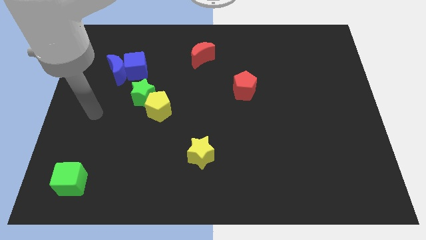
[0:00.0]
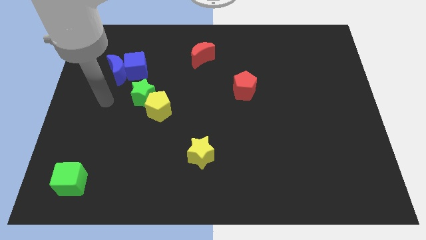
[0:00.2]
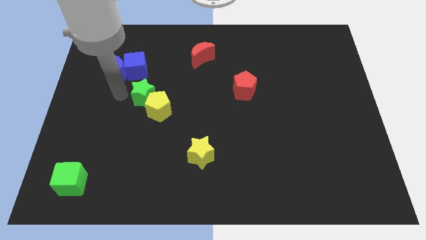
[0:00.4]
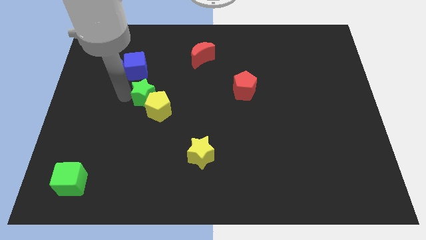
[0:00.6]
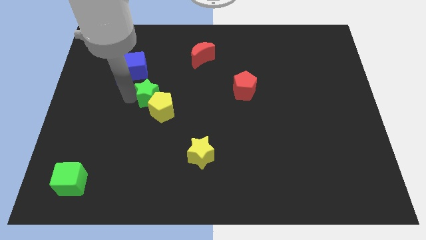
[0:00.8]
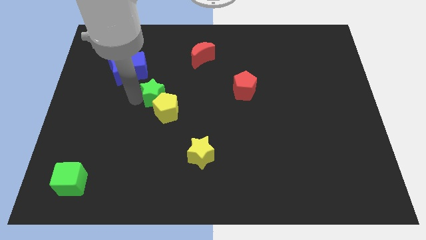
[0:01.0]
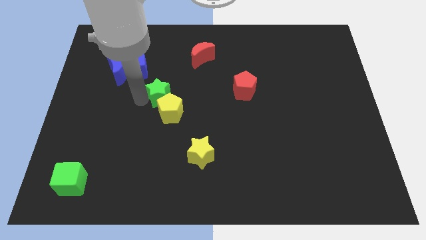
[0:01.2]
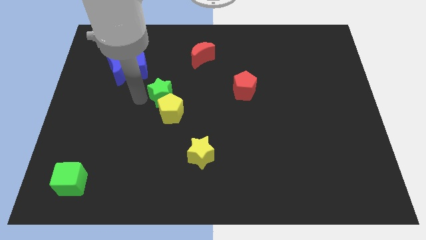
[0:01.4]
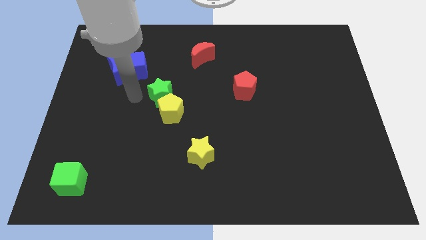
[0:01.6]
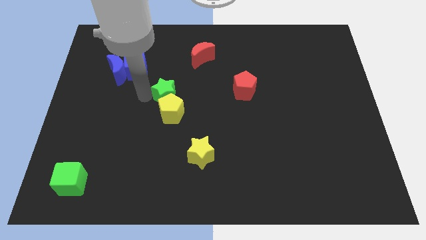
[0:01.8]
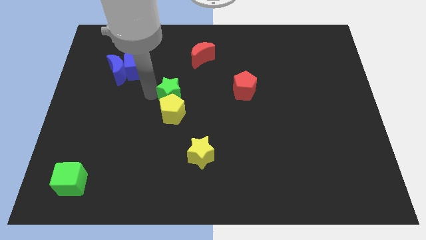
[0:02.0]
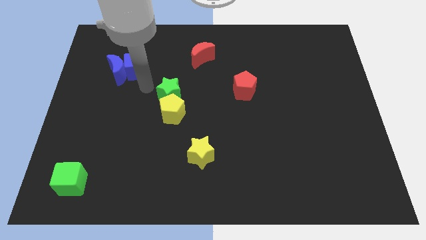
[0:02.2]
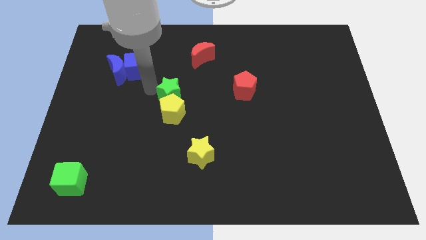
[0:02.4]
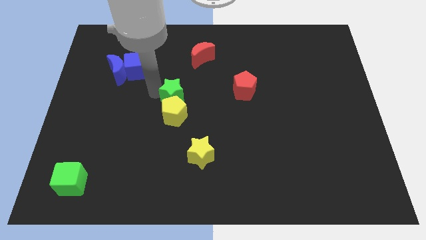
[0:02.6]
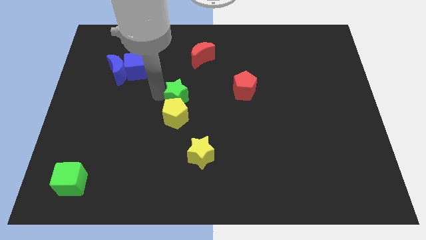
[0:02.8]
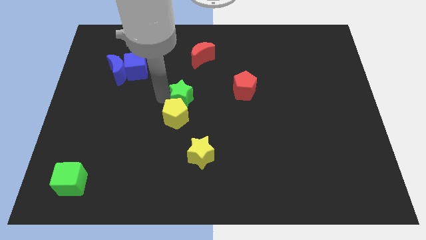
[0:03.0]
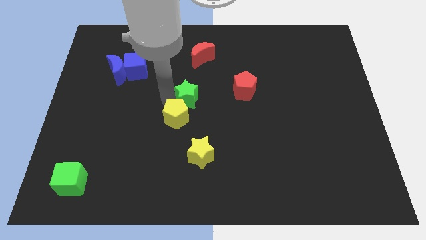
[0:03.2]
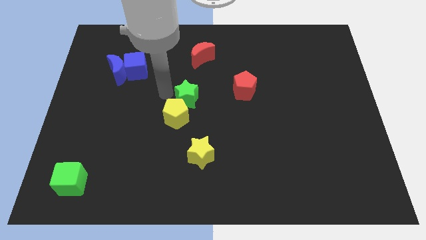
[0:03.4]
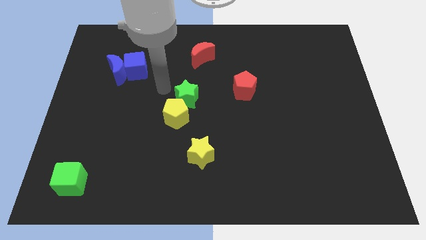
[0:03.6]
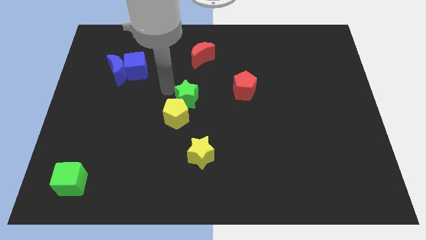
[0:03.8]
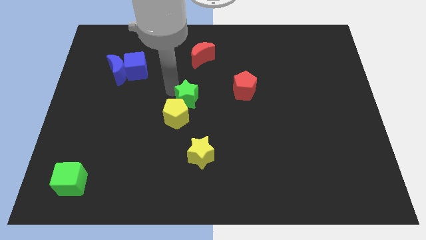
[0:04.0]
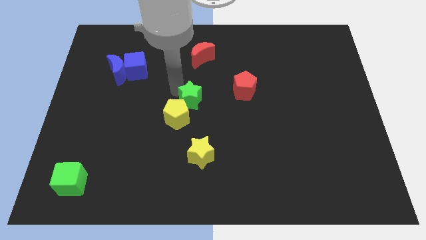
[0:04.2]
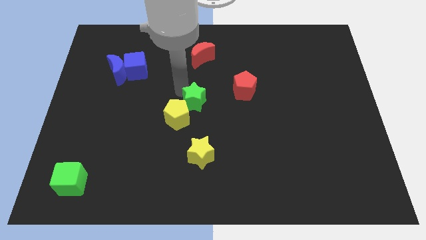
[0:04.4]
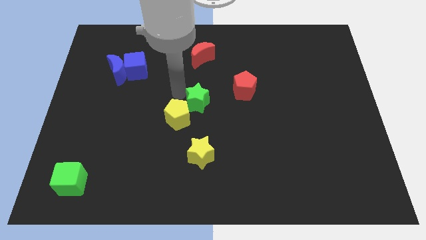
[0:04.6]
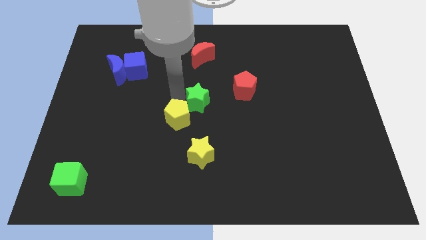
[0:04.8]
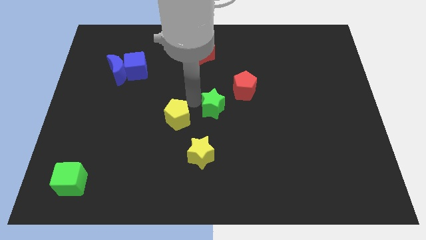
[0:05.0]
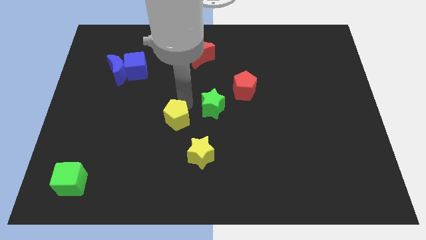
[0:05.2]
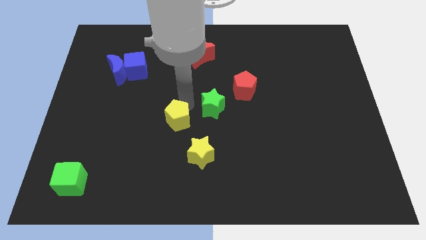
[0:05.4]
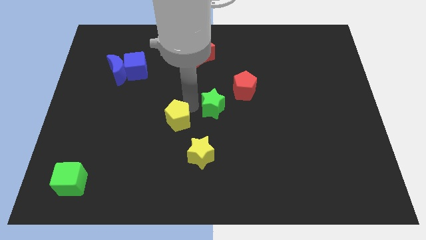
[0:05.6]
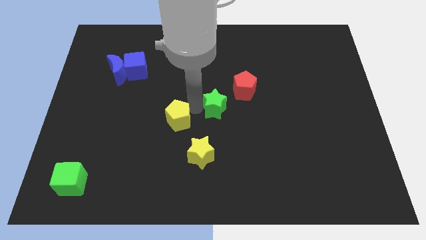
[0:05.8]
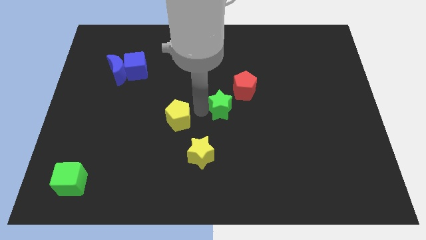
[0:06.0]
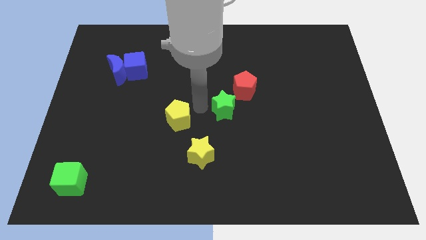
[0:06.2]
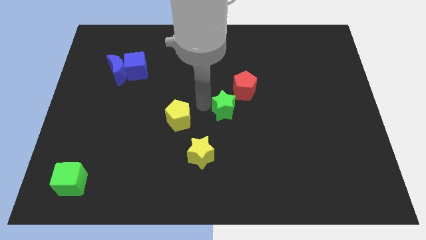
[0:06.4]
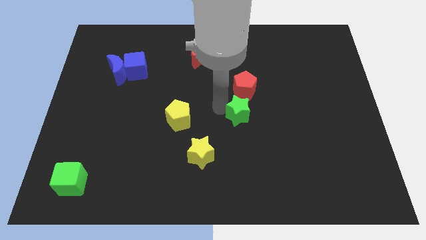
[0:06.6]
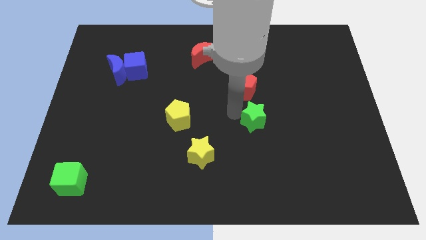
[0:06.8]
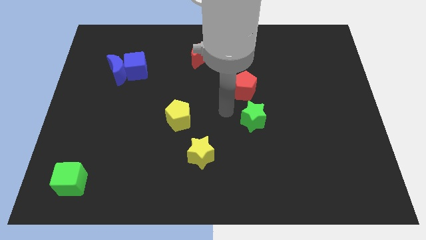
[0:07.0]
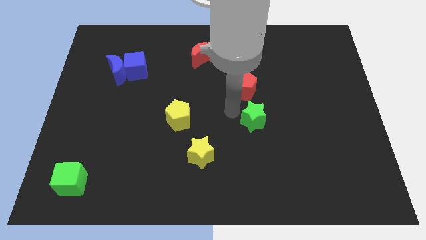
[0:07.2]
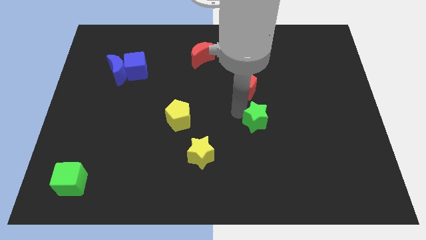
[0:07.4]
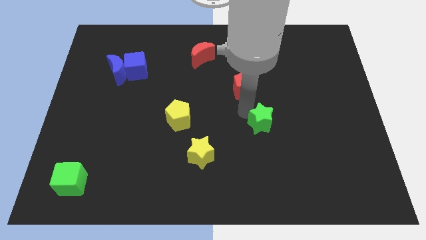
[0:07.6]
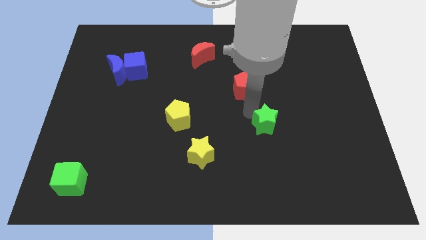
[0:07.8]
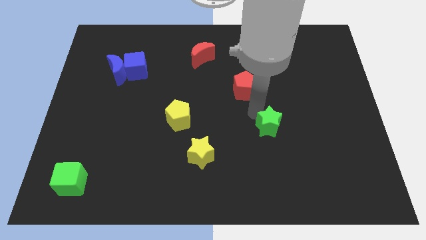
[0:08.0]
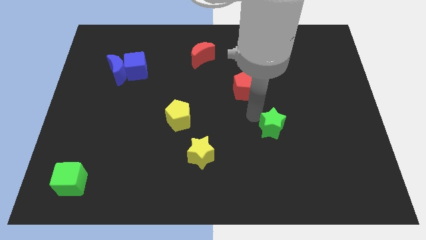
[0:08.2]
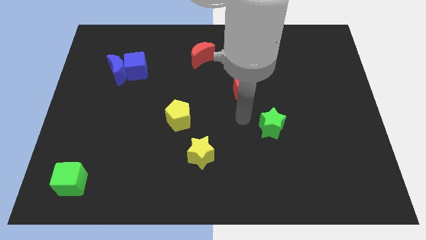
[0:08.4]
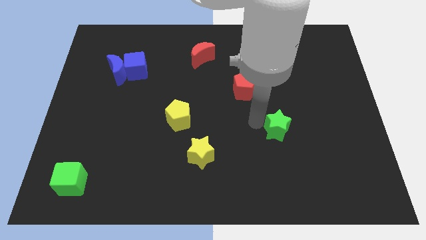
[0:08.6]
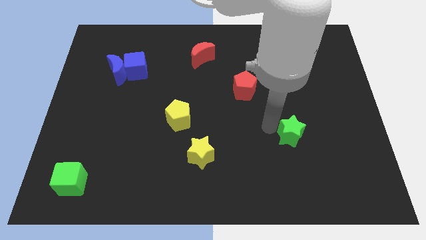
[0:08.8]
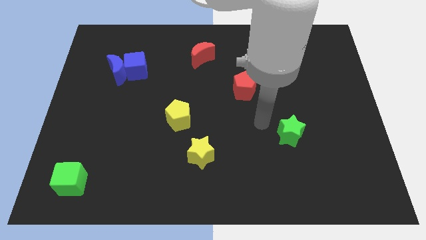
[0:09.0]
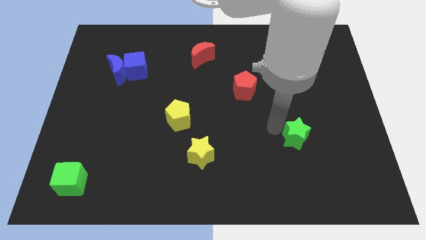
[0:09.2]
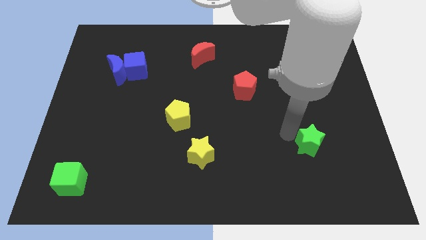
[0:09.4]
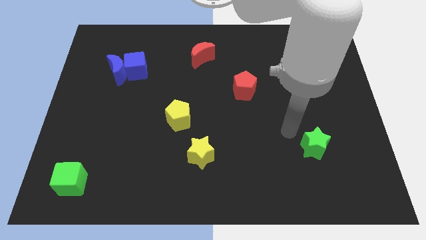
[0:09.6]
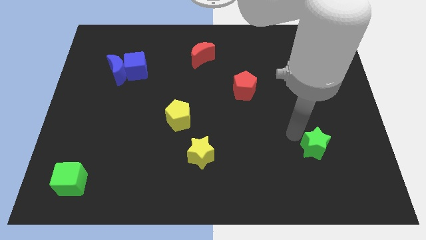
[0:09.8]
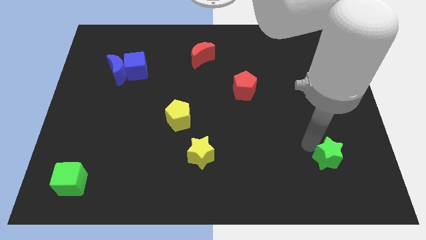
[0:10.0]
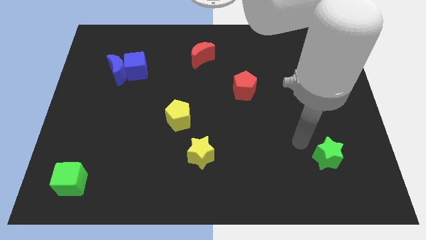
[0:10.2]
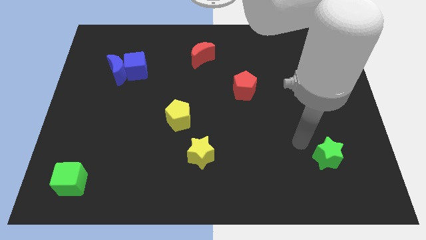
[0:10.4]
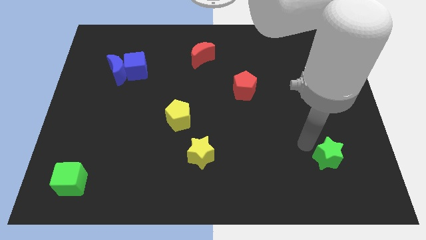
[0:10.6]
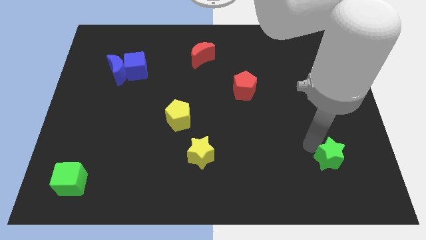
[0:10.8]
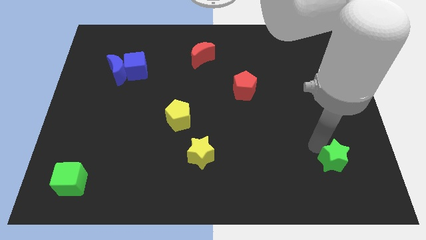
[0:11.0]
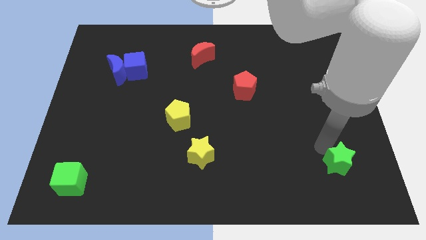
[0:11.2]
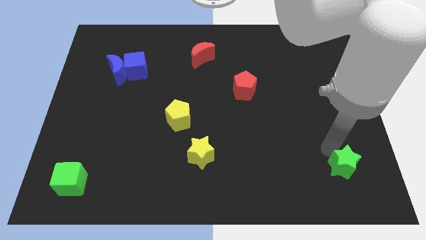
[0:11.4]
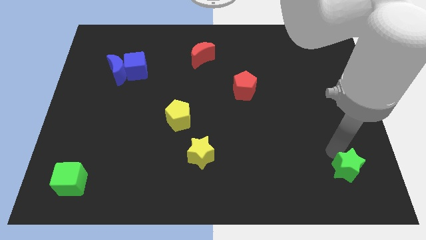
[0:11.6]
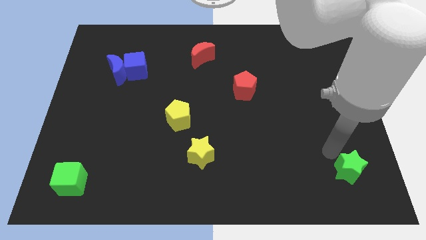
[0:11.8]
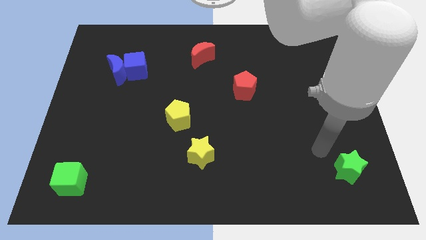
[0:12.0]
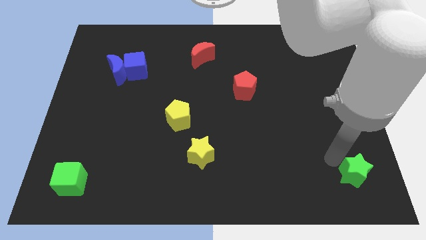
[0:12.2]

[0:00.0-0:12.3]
move the green star to the bottom right corner

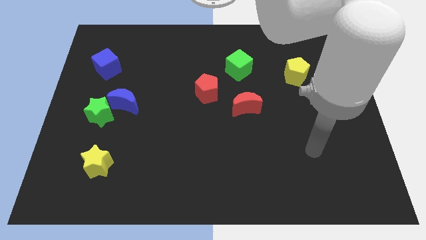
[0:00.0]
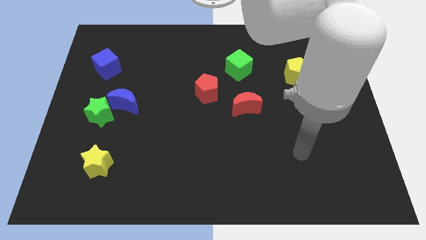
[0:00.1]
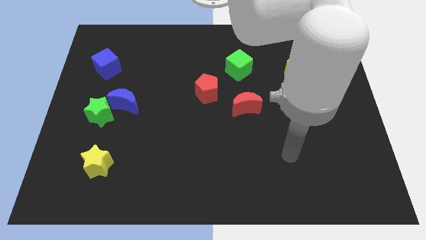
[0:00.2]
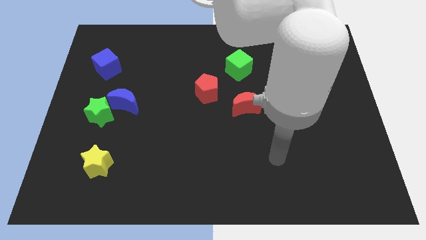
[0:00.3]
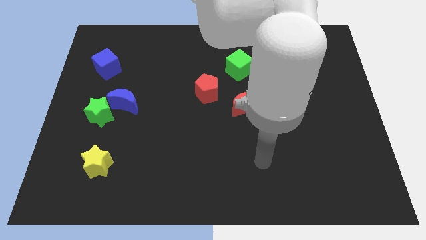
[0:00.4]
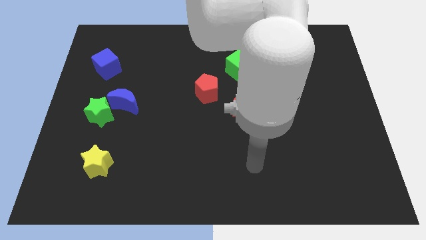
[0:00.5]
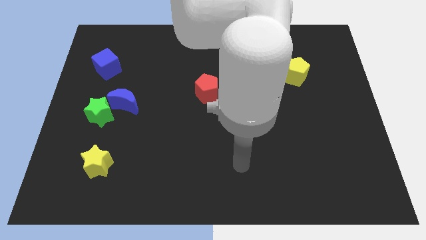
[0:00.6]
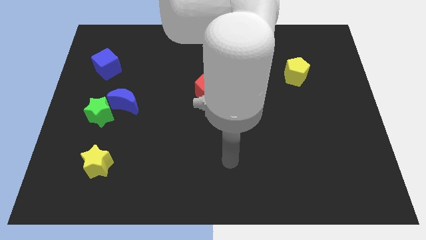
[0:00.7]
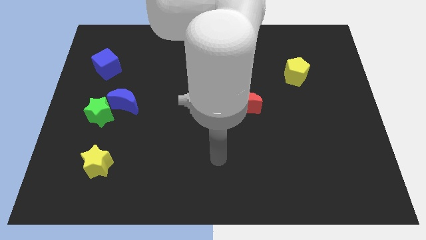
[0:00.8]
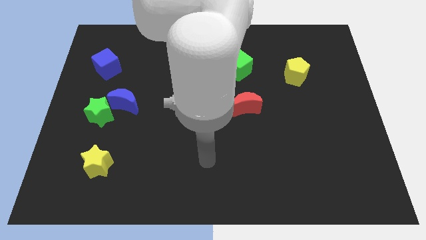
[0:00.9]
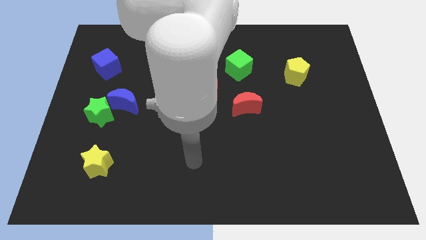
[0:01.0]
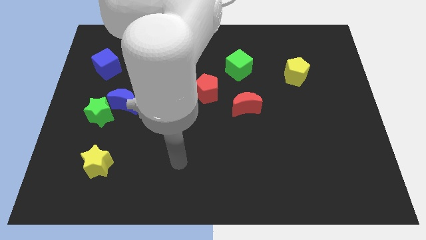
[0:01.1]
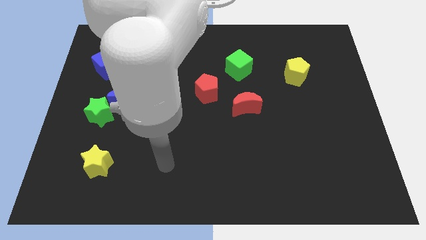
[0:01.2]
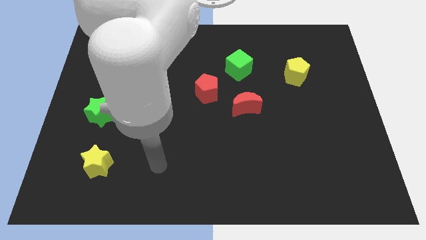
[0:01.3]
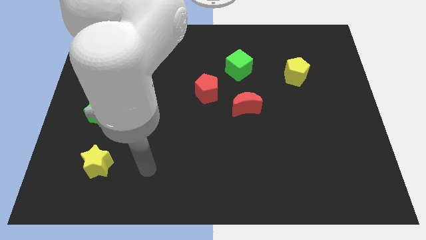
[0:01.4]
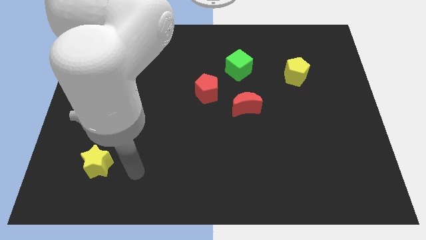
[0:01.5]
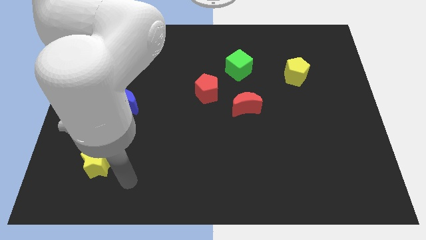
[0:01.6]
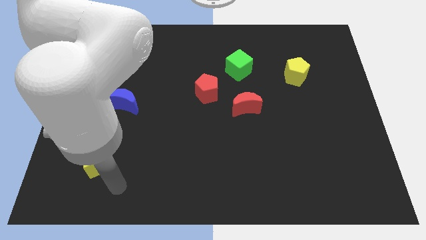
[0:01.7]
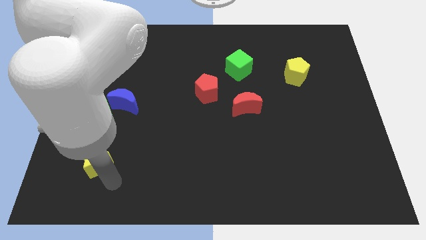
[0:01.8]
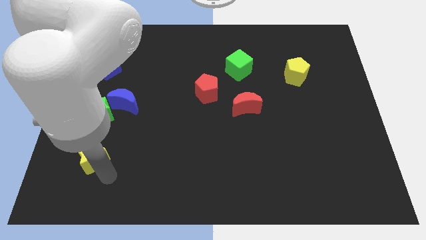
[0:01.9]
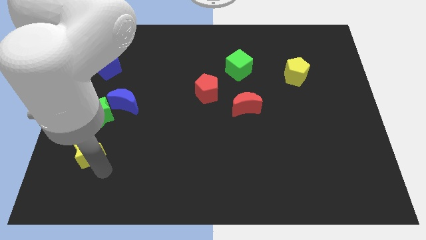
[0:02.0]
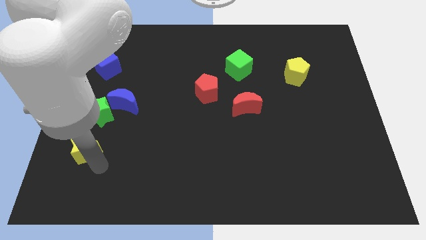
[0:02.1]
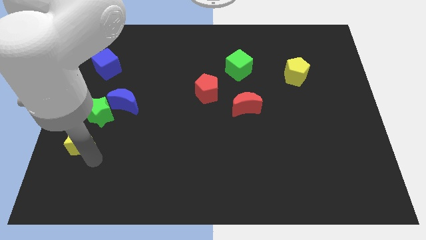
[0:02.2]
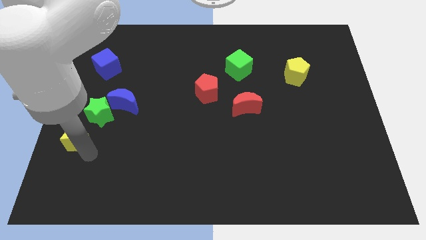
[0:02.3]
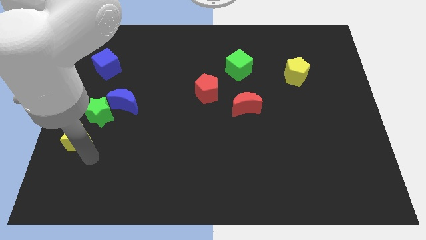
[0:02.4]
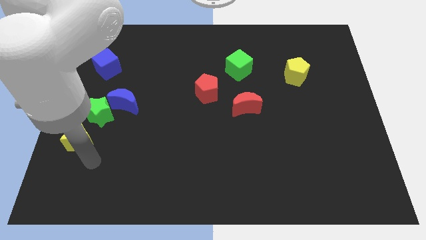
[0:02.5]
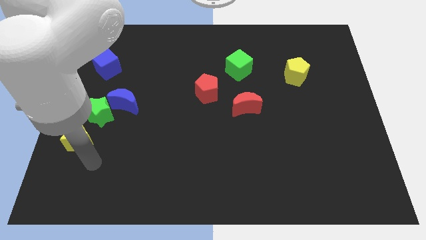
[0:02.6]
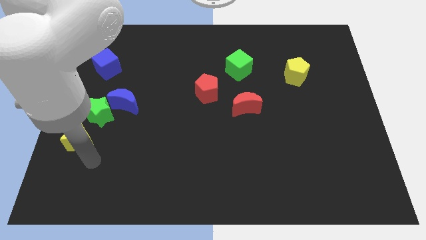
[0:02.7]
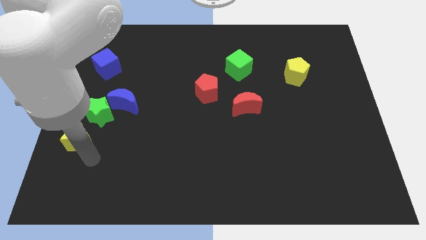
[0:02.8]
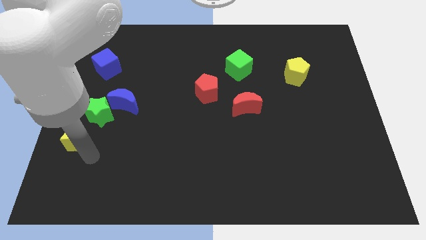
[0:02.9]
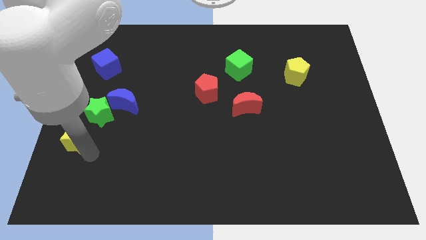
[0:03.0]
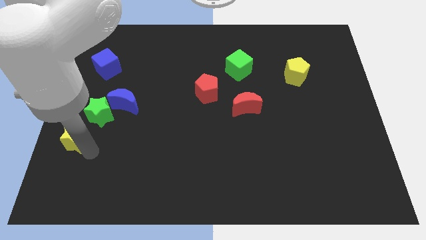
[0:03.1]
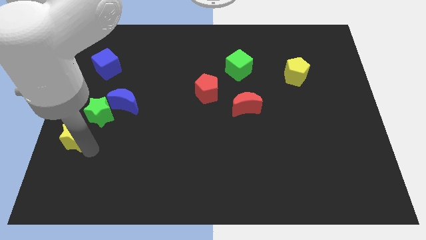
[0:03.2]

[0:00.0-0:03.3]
move the yellow star to the center left
